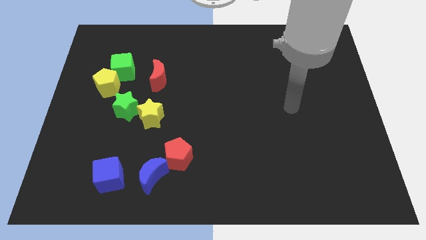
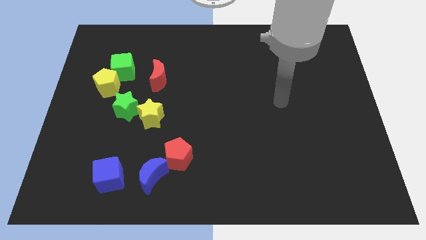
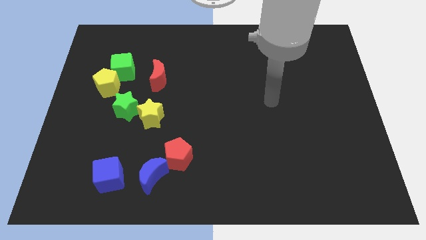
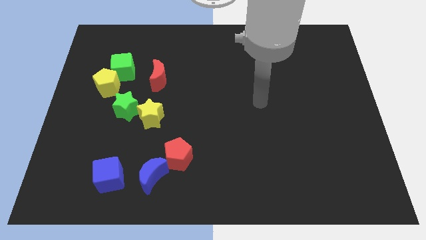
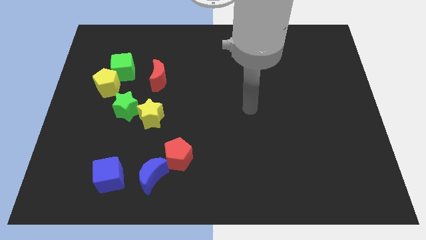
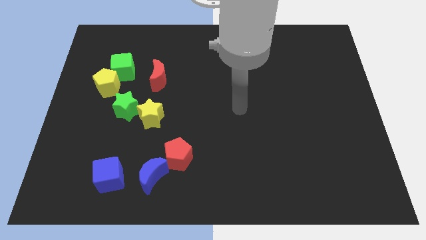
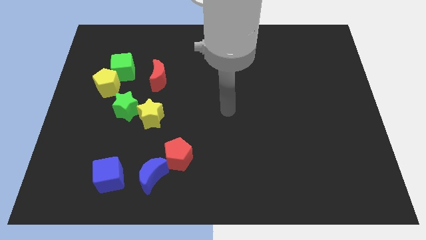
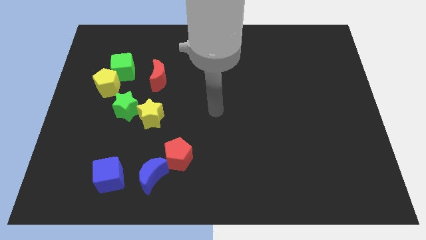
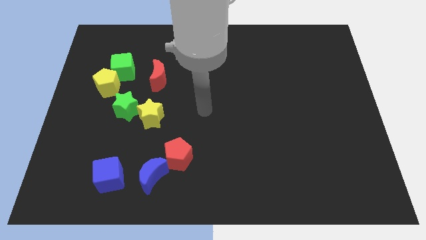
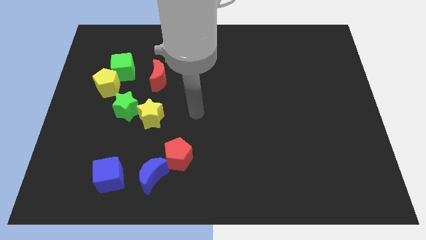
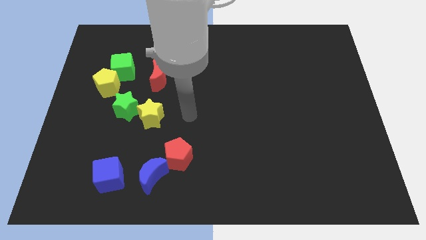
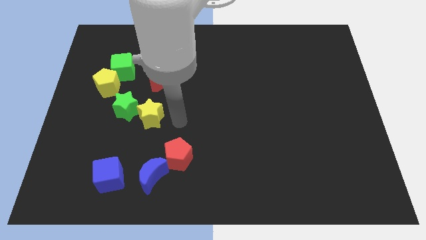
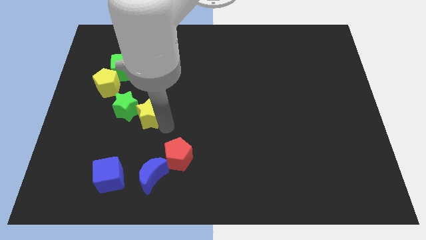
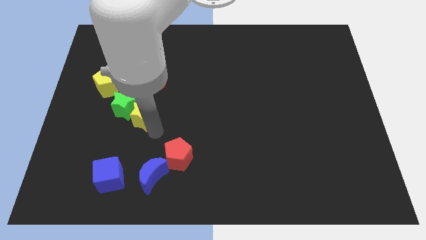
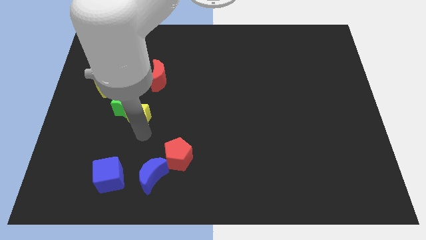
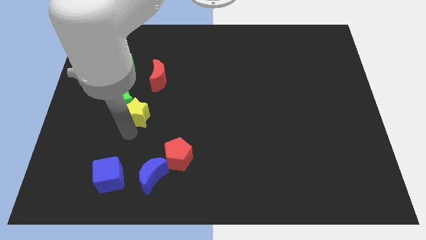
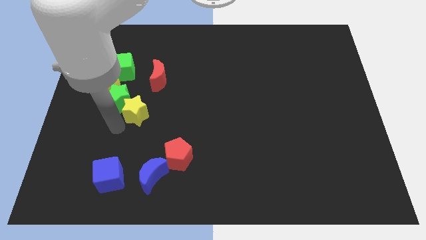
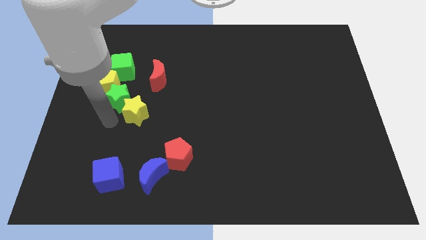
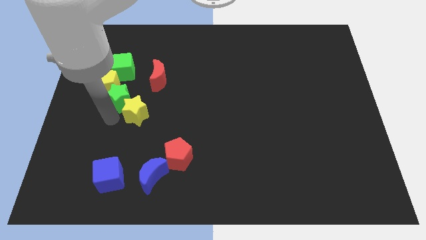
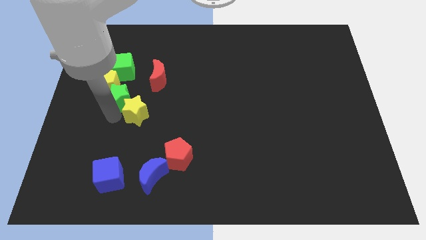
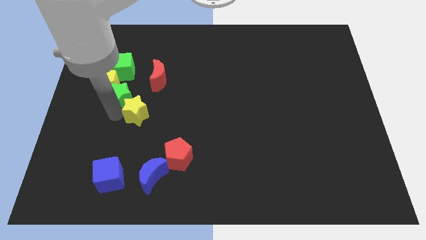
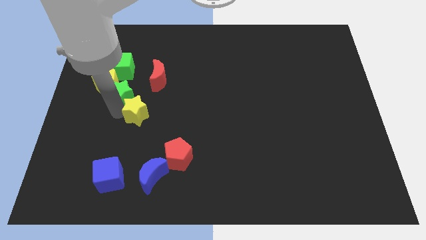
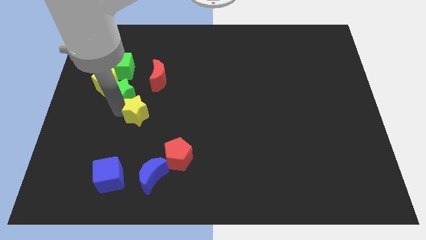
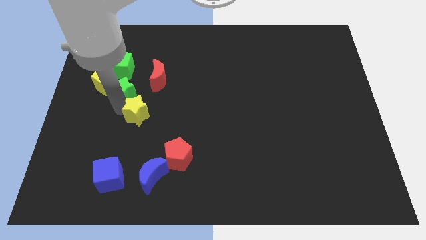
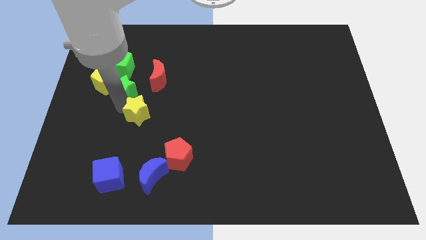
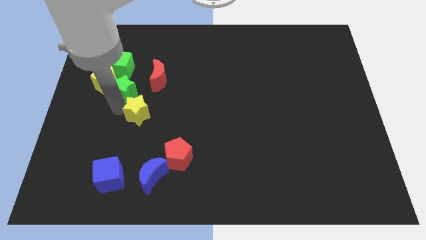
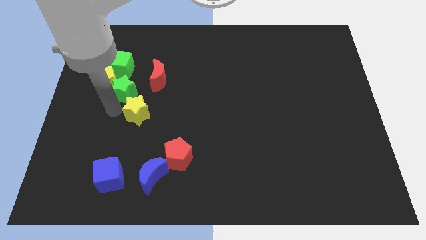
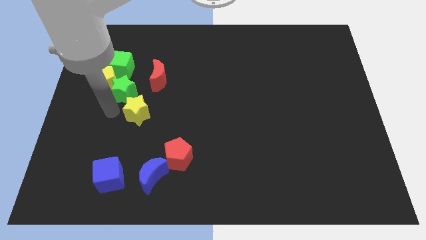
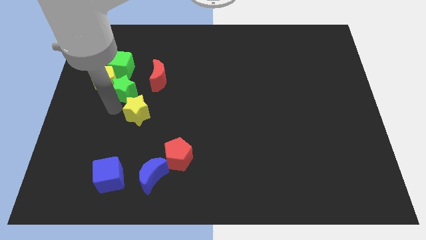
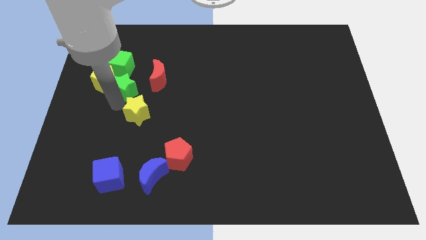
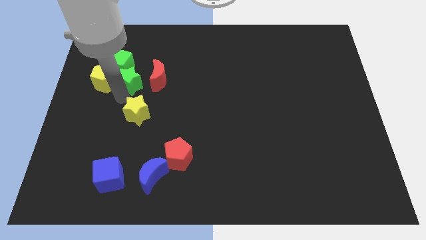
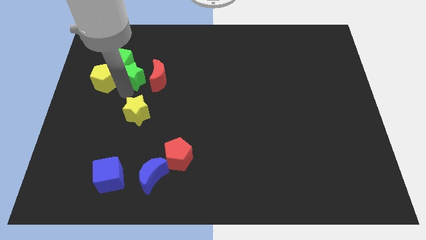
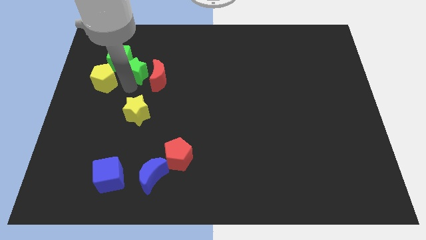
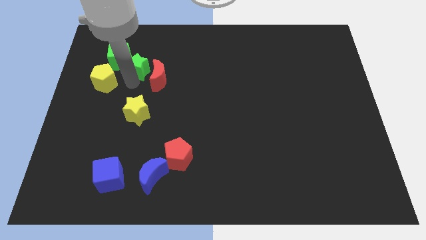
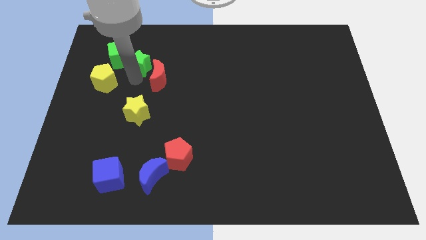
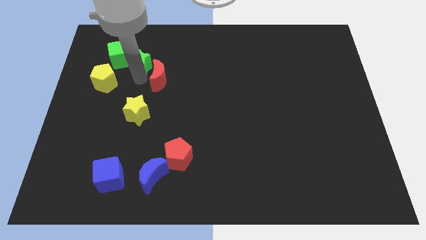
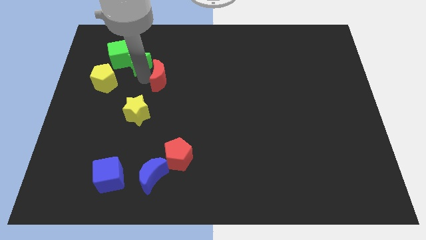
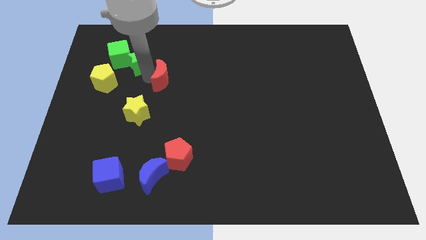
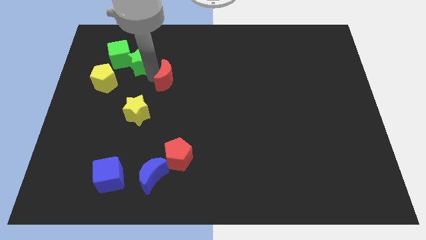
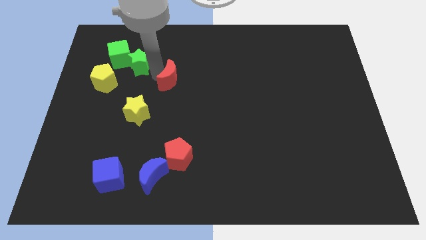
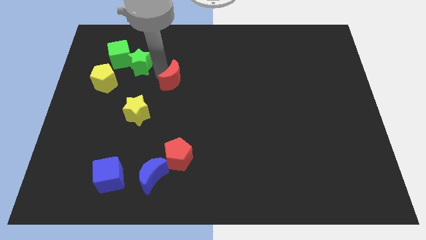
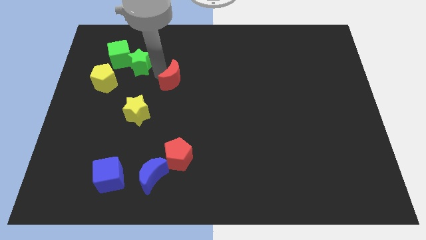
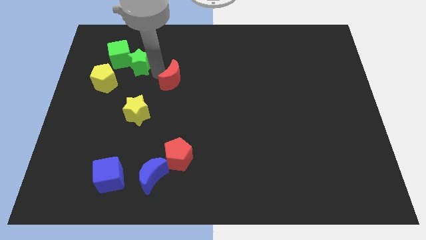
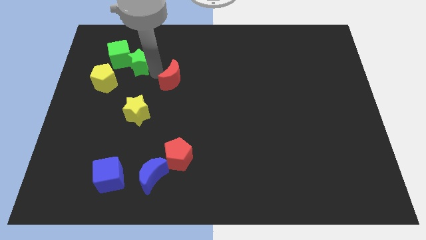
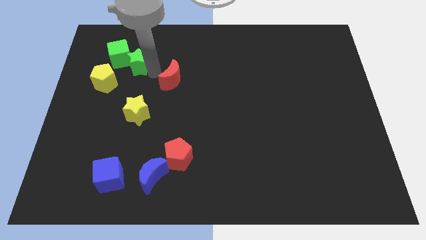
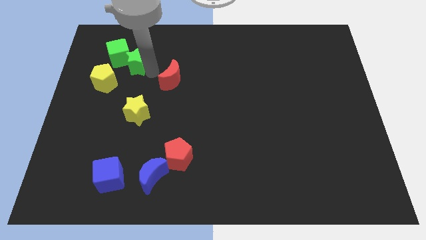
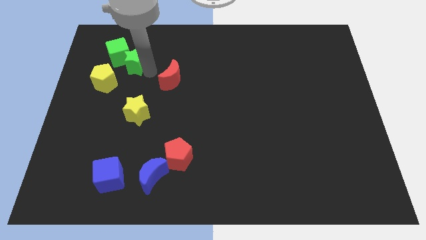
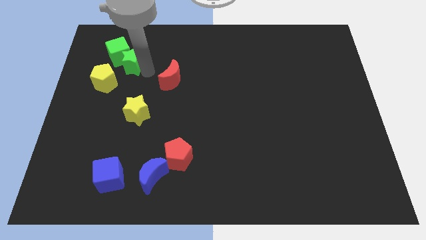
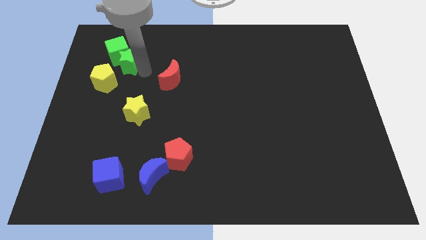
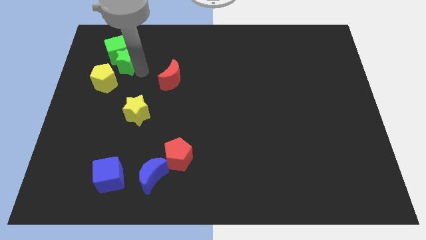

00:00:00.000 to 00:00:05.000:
move the green star to the top side of the yellow pentagon

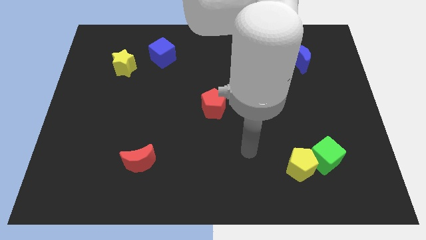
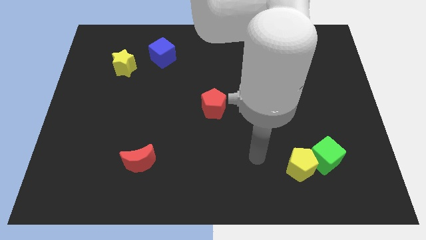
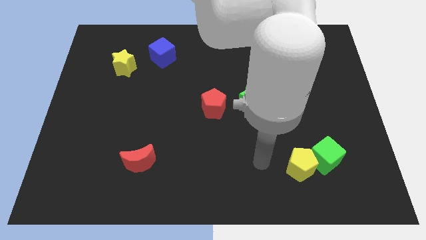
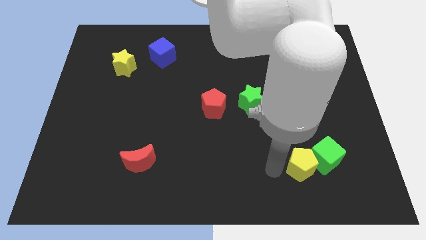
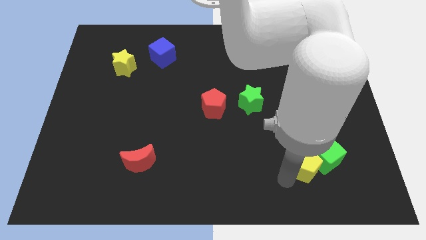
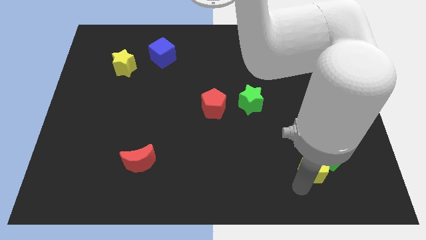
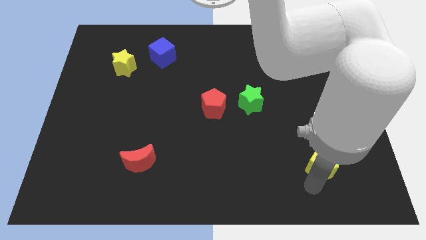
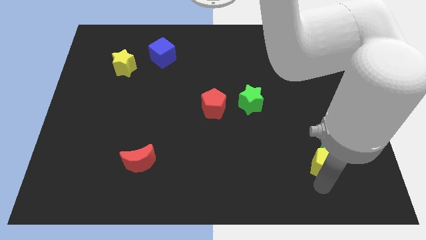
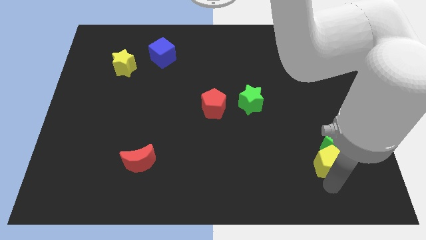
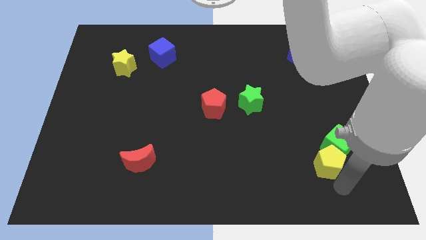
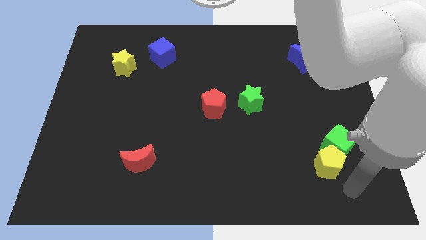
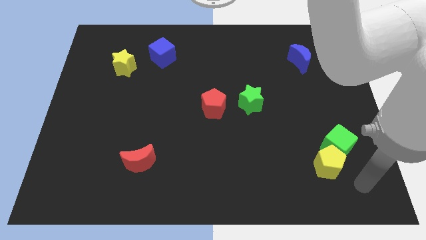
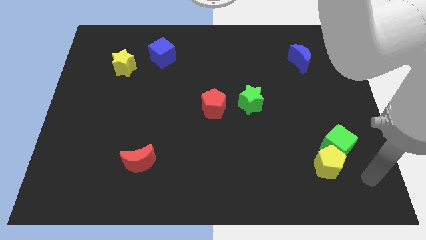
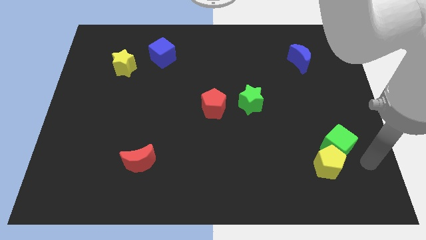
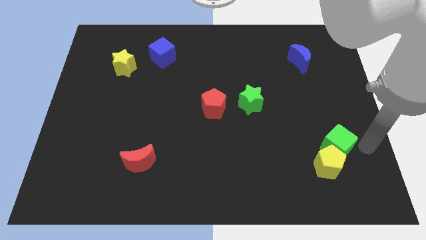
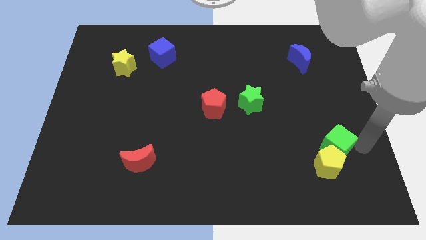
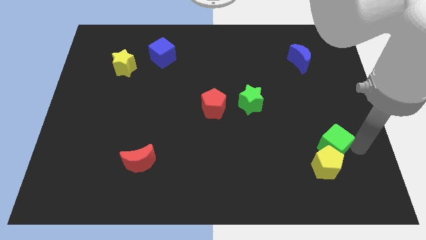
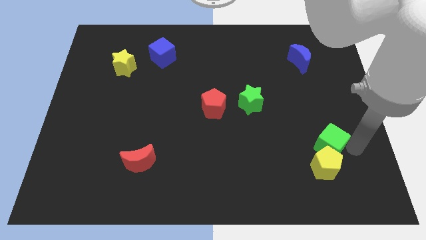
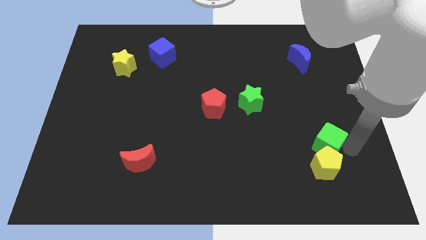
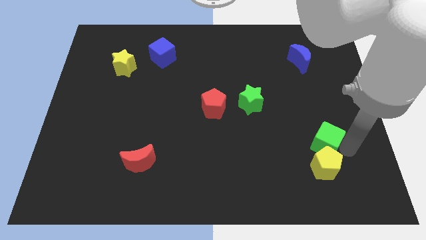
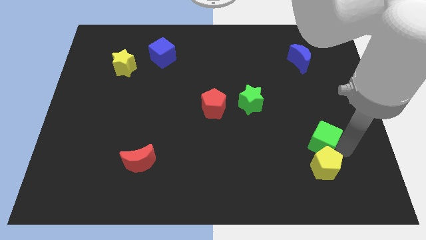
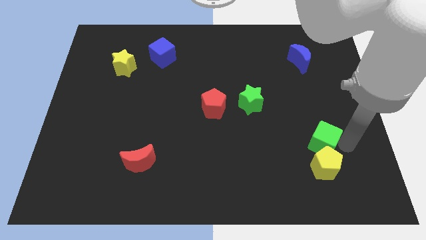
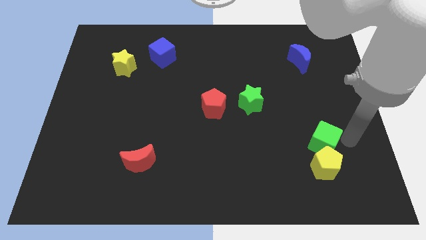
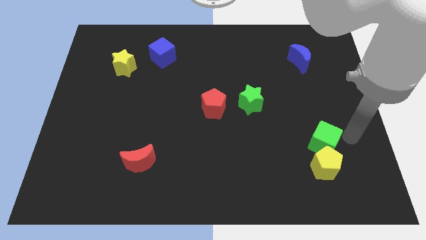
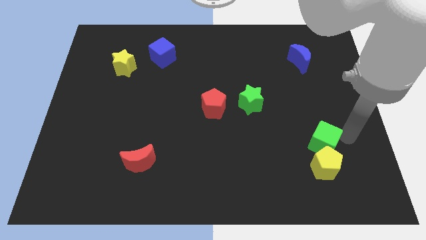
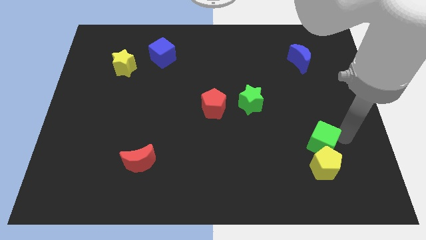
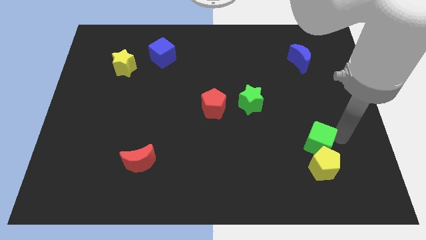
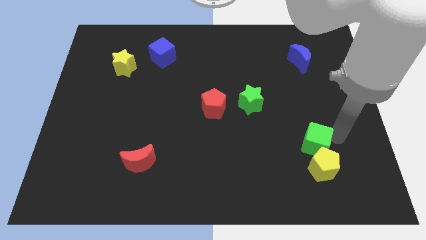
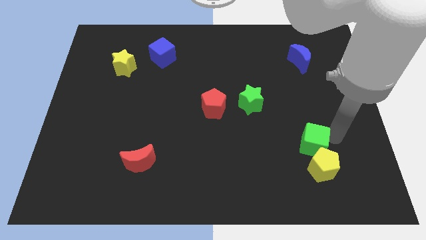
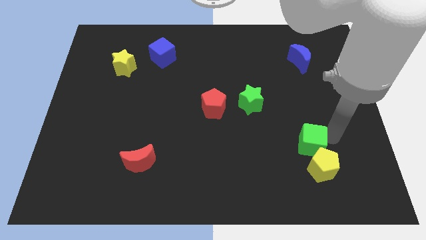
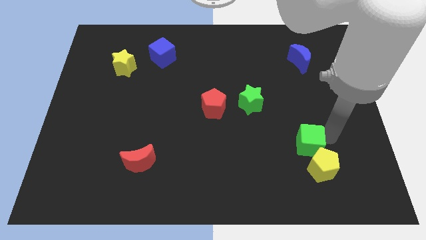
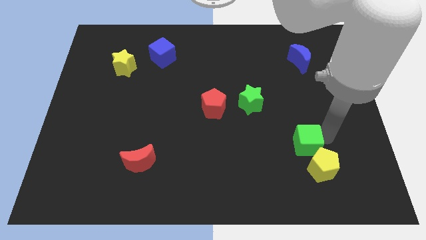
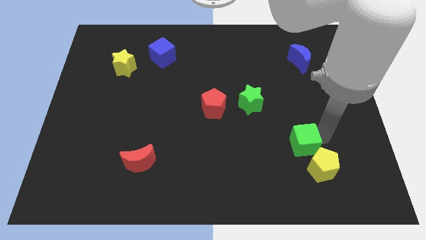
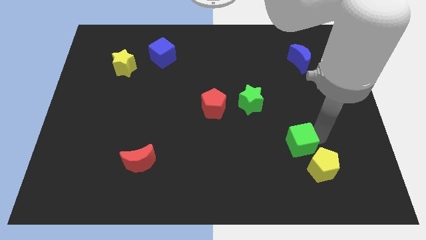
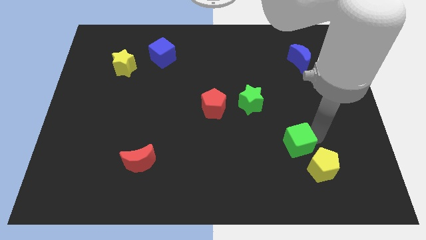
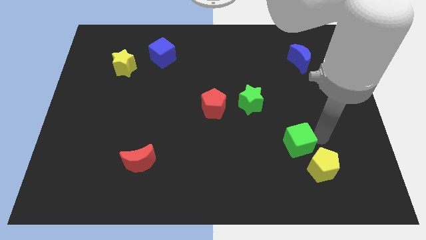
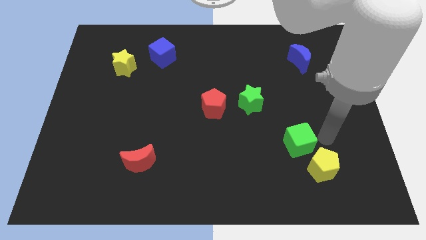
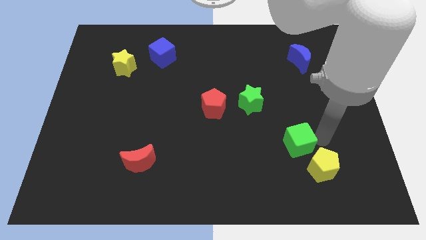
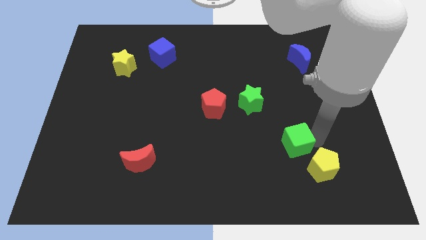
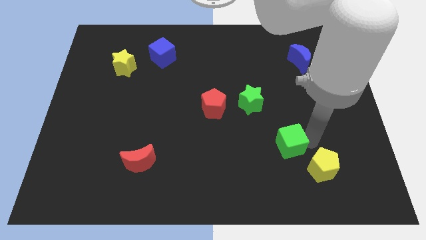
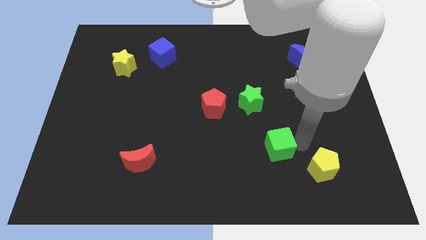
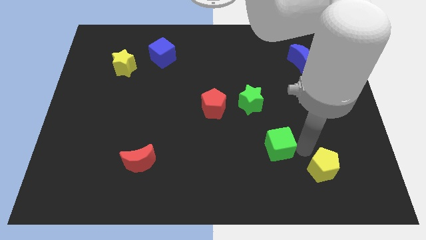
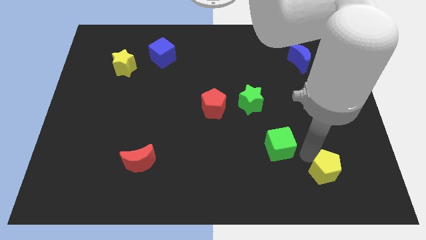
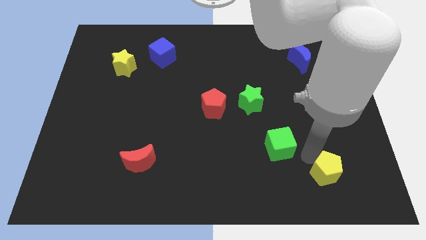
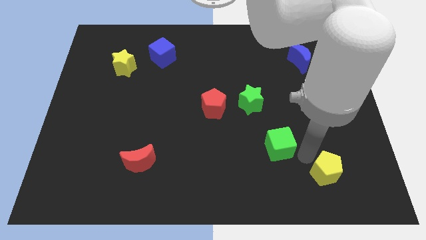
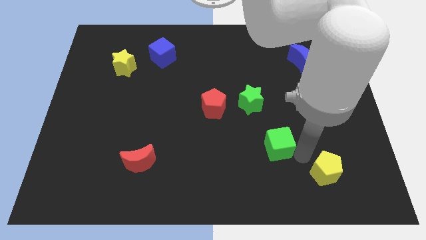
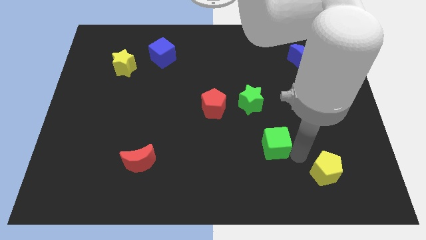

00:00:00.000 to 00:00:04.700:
push the green cube below the green star
